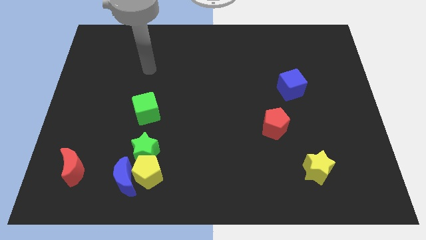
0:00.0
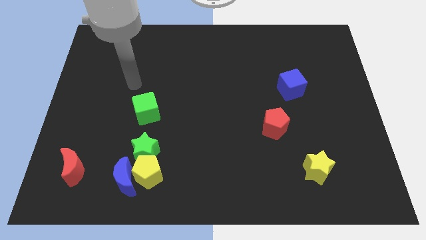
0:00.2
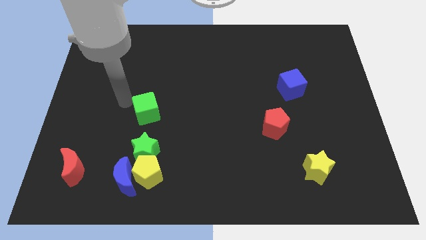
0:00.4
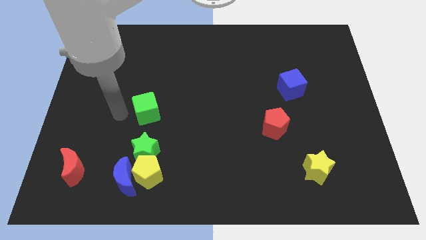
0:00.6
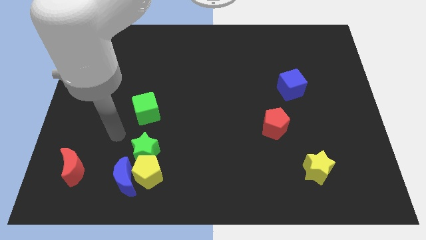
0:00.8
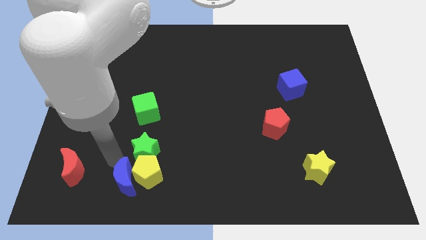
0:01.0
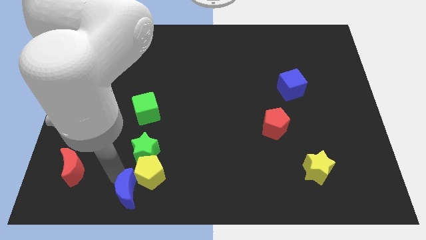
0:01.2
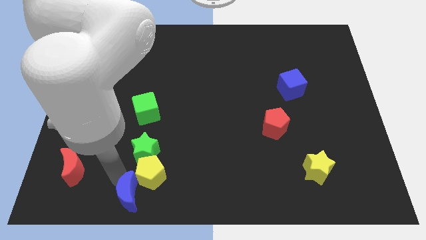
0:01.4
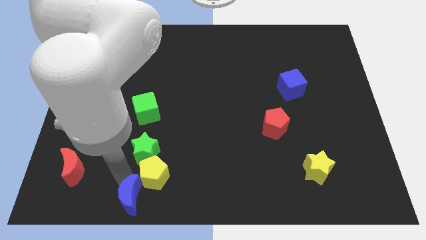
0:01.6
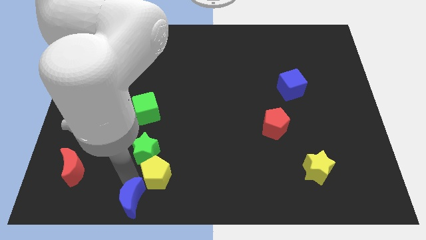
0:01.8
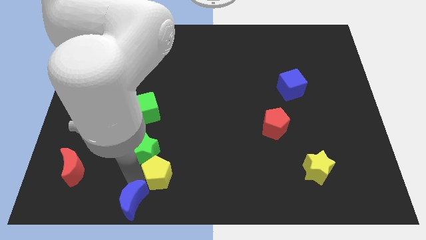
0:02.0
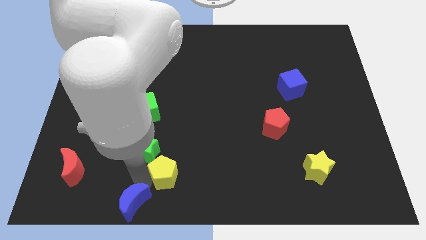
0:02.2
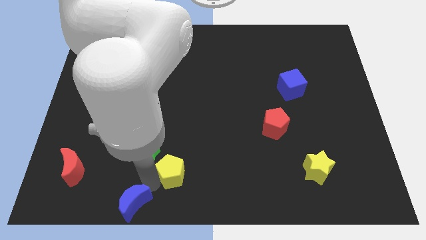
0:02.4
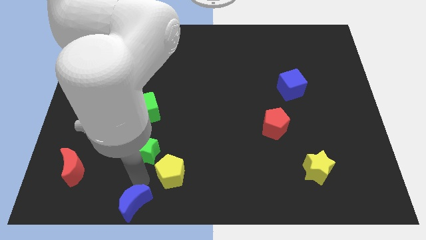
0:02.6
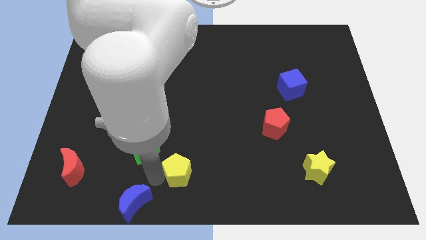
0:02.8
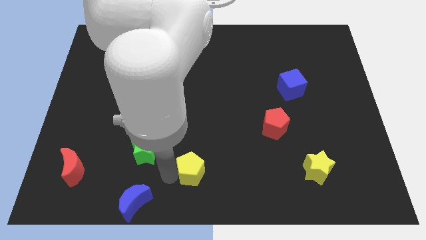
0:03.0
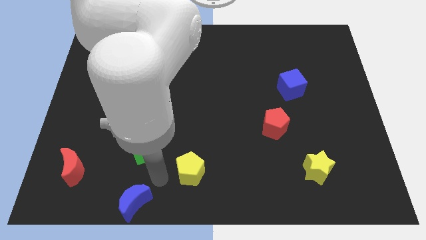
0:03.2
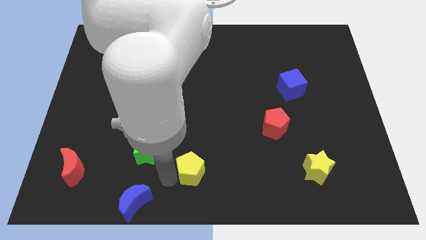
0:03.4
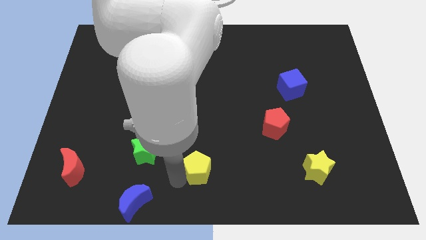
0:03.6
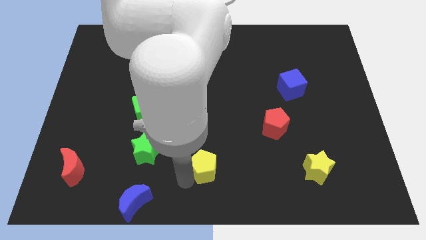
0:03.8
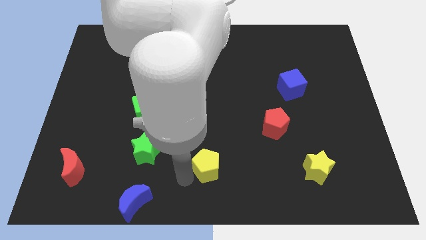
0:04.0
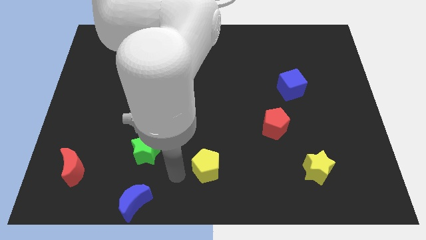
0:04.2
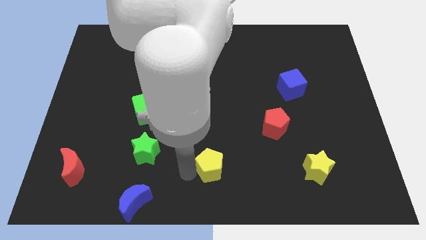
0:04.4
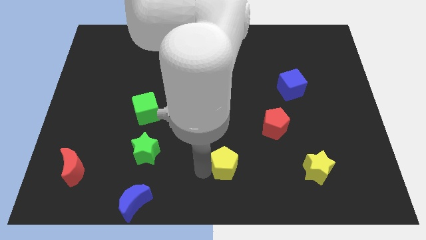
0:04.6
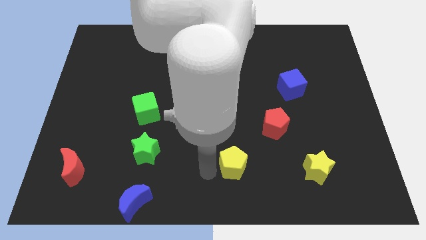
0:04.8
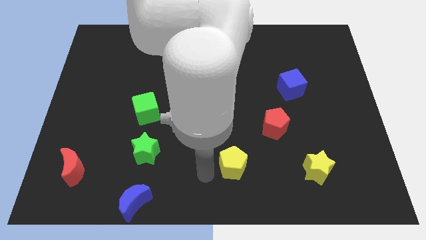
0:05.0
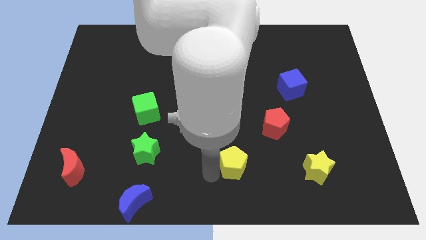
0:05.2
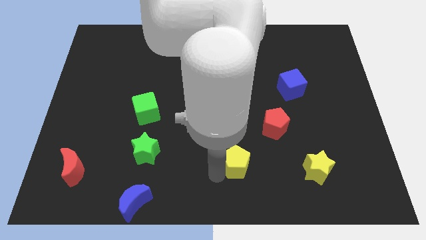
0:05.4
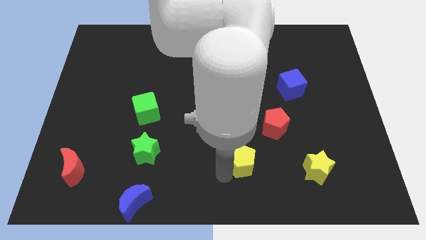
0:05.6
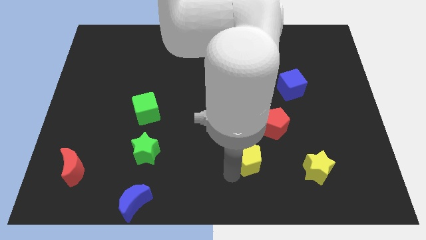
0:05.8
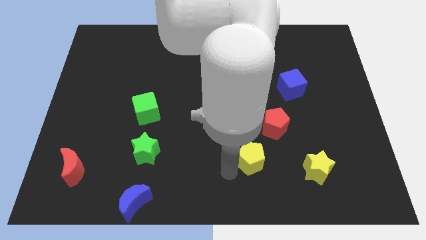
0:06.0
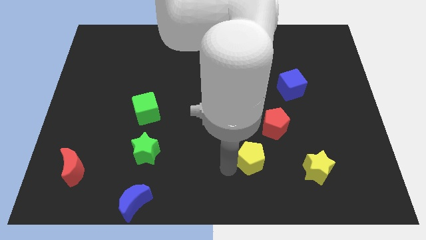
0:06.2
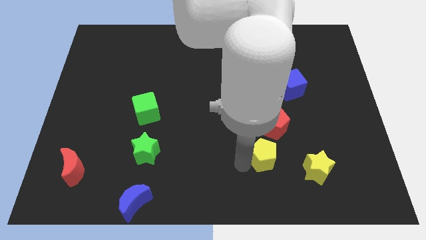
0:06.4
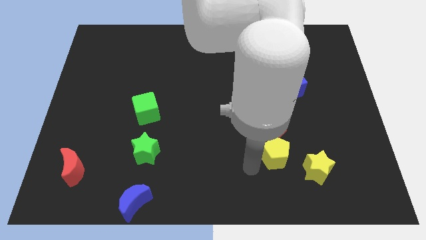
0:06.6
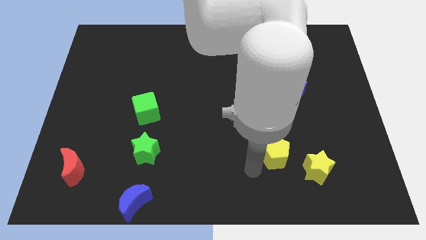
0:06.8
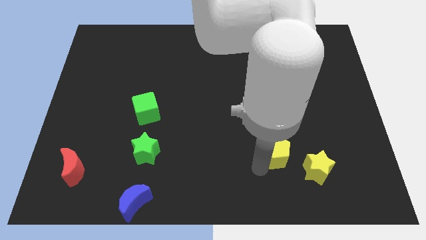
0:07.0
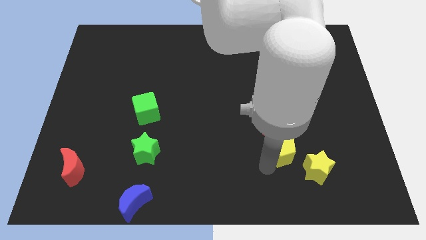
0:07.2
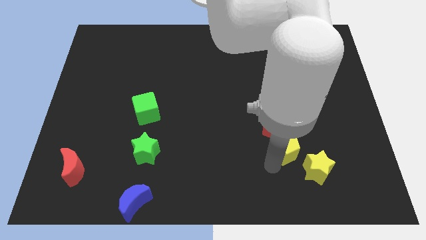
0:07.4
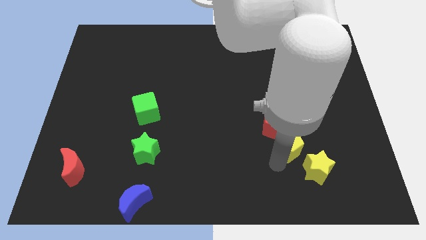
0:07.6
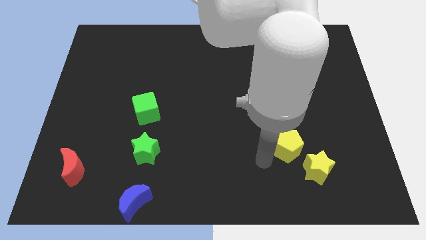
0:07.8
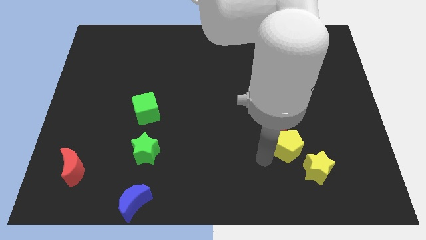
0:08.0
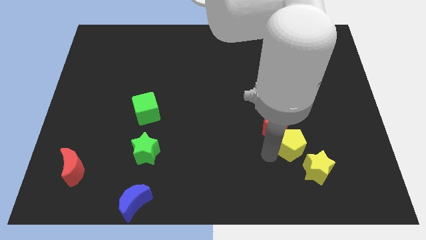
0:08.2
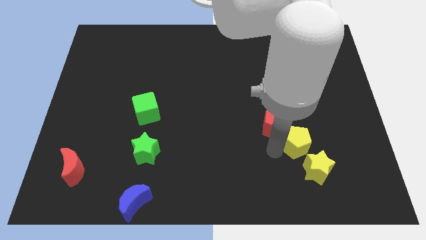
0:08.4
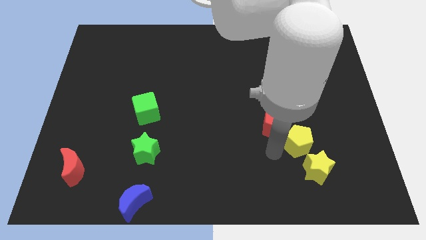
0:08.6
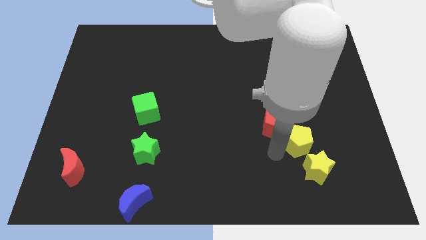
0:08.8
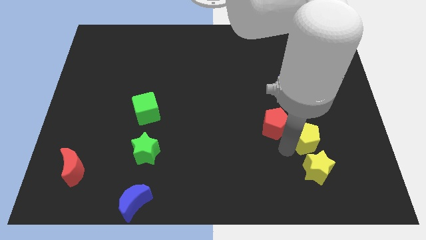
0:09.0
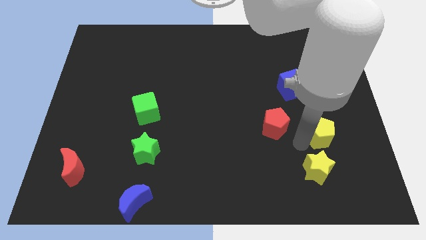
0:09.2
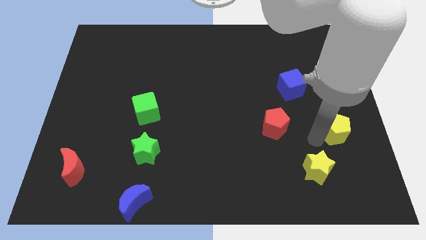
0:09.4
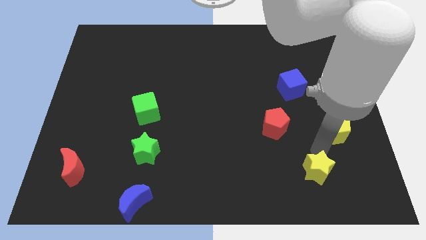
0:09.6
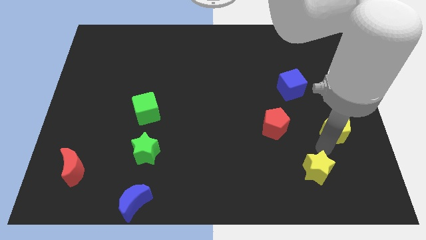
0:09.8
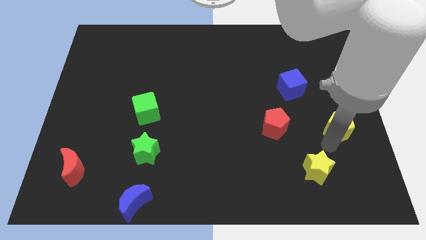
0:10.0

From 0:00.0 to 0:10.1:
slide the yellow pentagon to the center right

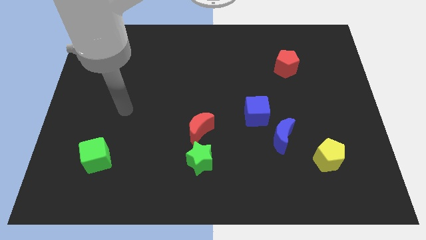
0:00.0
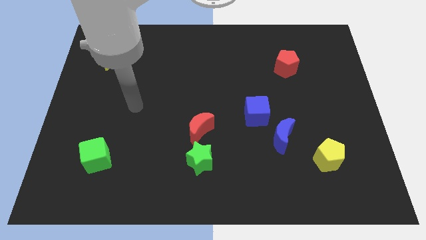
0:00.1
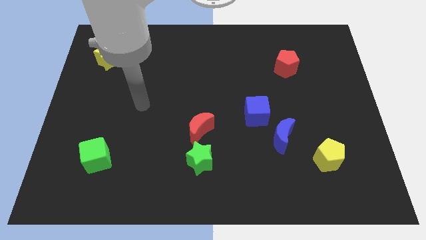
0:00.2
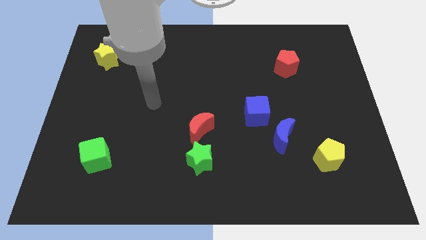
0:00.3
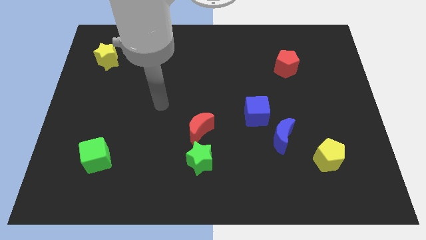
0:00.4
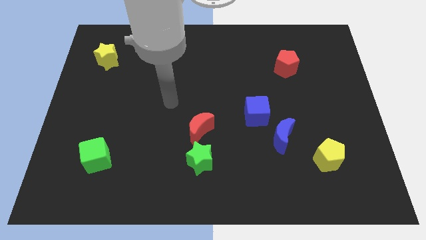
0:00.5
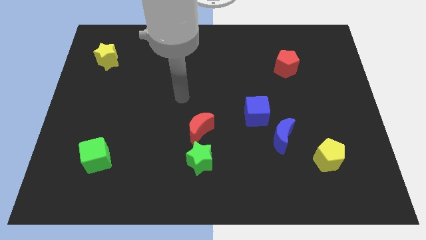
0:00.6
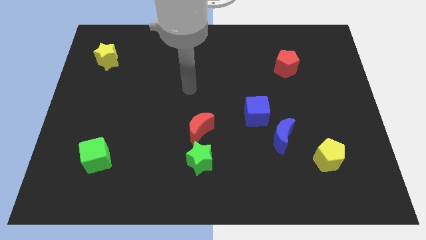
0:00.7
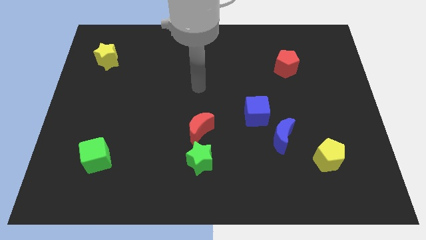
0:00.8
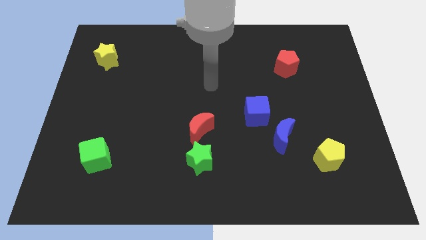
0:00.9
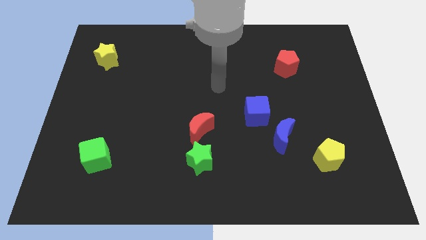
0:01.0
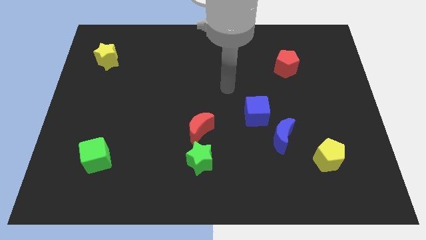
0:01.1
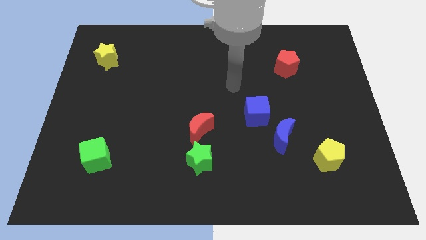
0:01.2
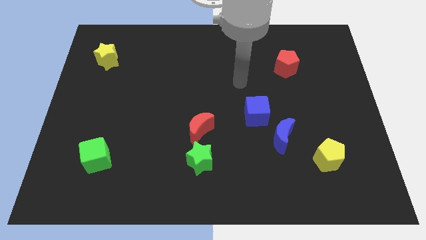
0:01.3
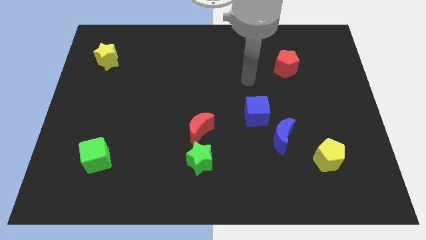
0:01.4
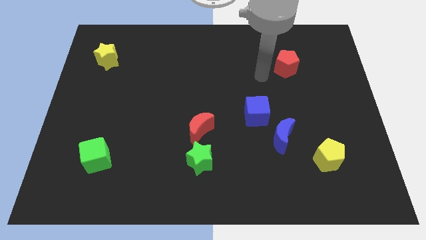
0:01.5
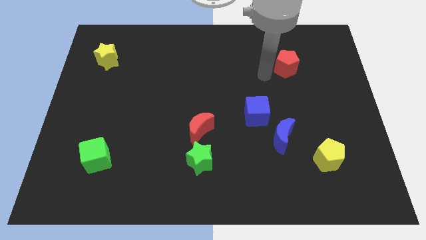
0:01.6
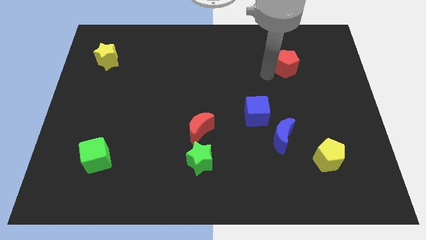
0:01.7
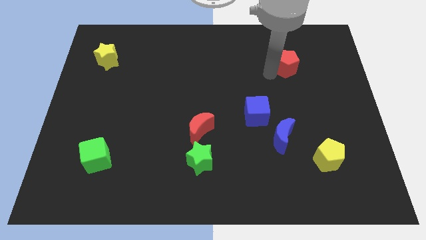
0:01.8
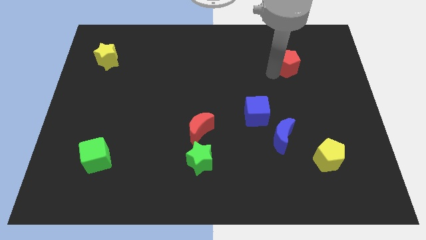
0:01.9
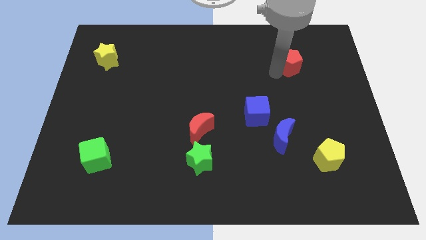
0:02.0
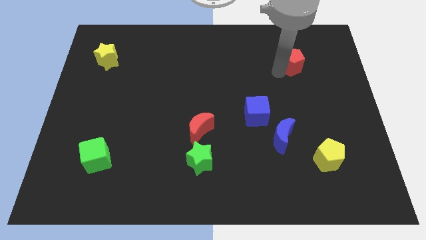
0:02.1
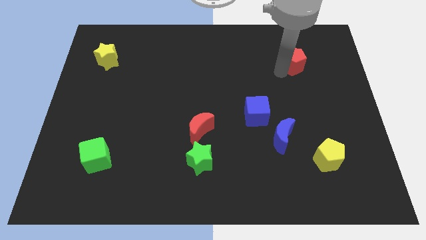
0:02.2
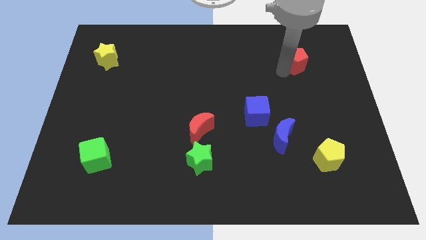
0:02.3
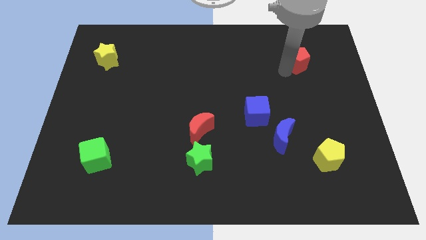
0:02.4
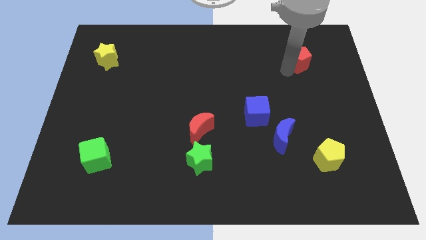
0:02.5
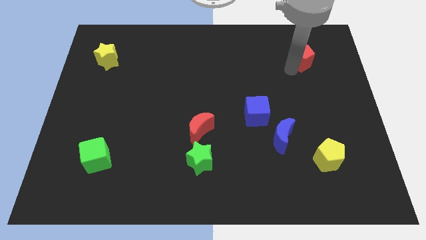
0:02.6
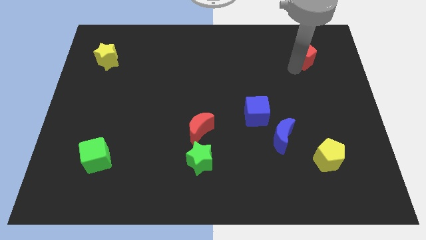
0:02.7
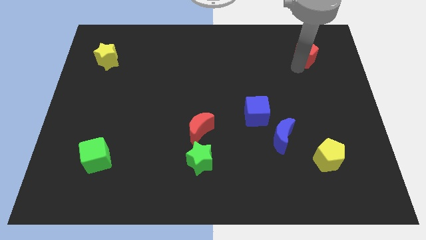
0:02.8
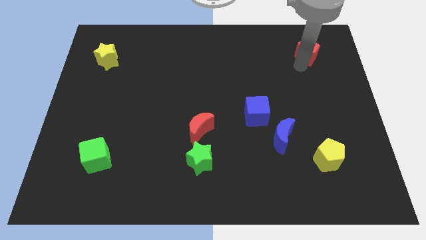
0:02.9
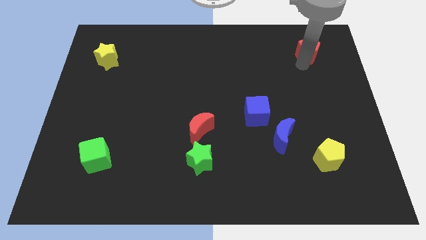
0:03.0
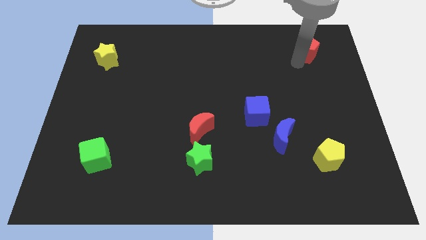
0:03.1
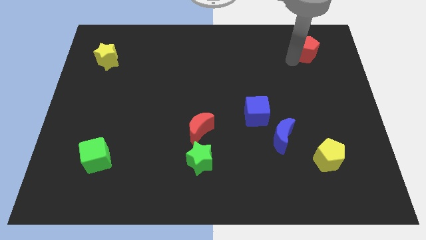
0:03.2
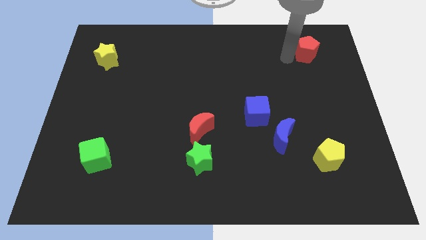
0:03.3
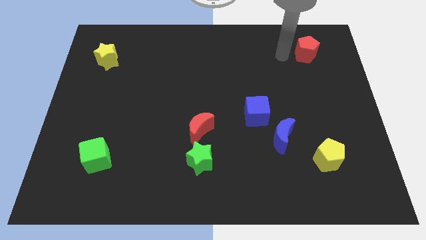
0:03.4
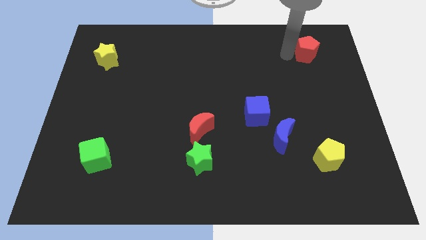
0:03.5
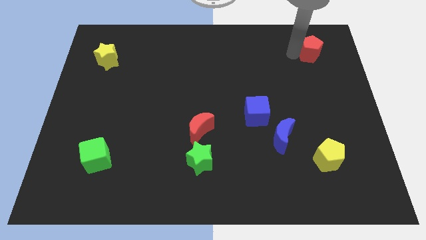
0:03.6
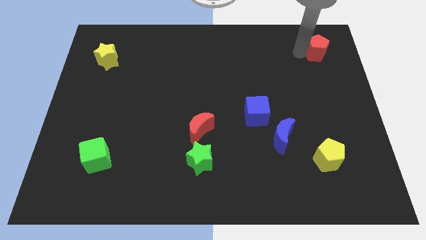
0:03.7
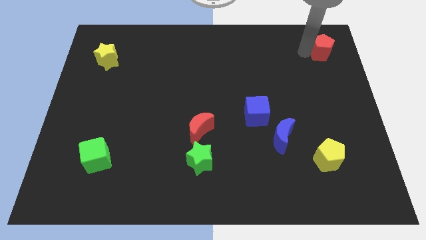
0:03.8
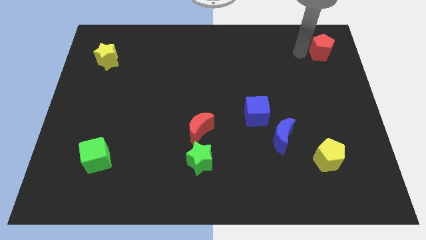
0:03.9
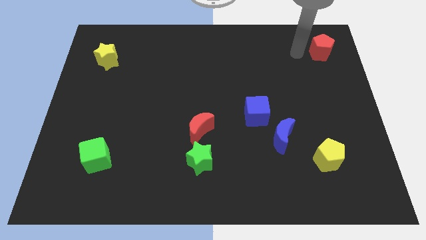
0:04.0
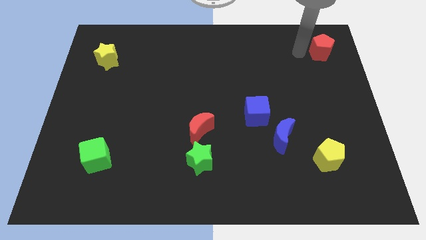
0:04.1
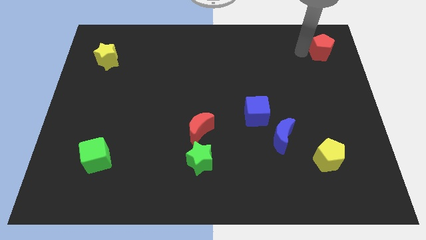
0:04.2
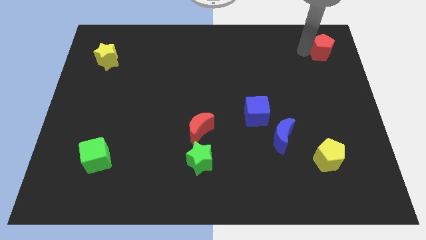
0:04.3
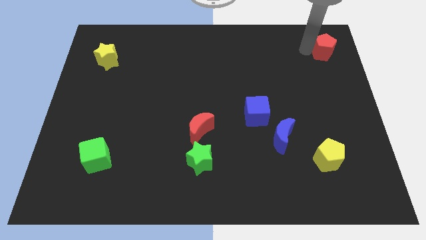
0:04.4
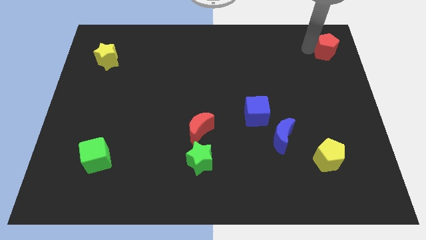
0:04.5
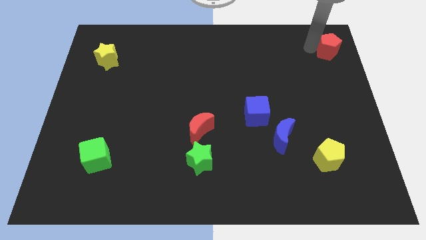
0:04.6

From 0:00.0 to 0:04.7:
put the red pentagon to the top right corner
